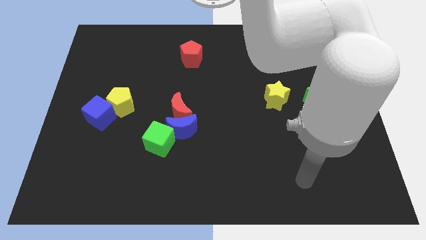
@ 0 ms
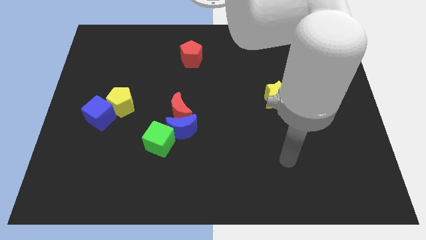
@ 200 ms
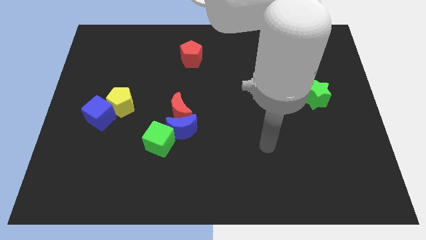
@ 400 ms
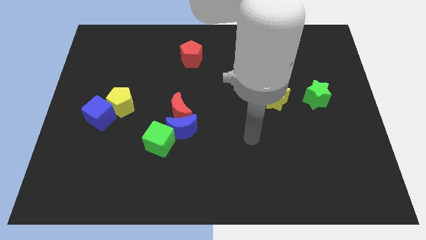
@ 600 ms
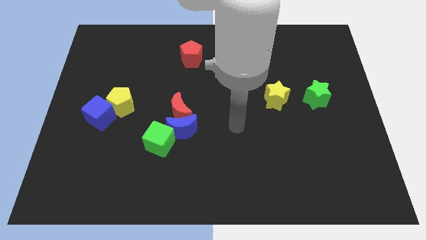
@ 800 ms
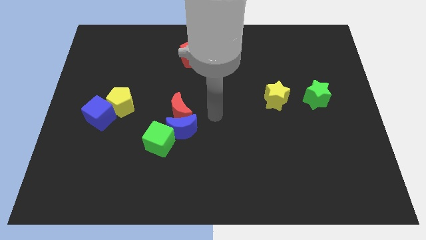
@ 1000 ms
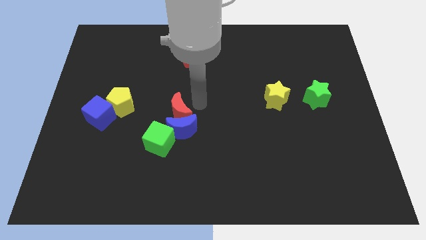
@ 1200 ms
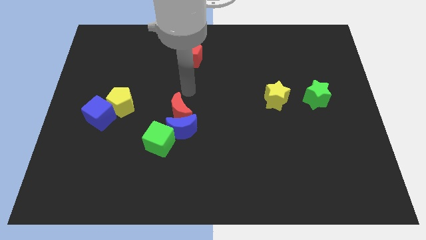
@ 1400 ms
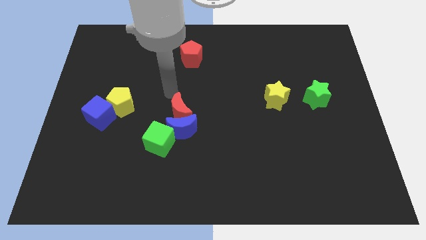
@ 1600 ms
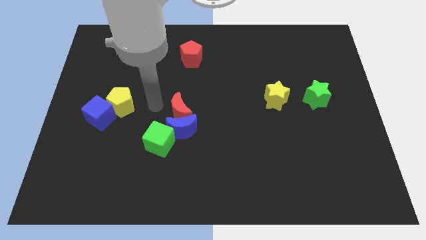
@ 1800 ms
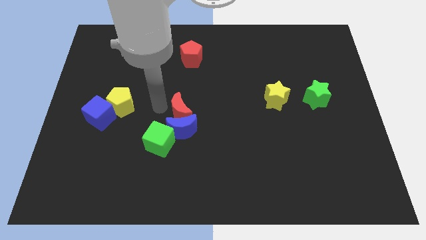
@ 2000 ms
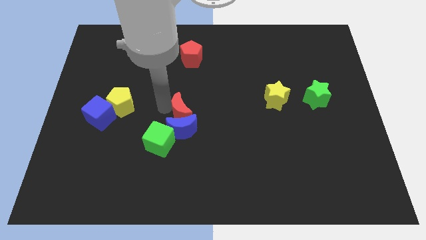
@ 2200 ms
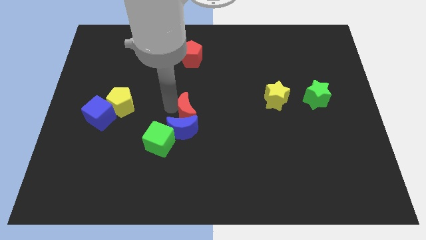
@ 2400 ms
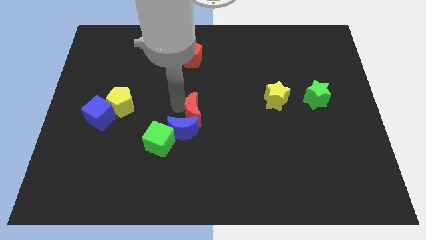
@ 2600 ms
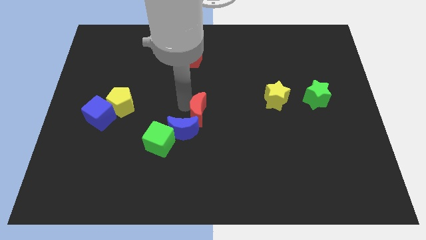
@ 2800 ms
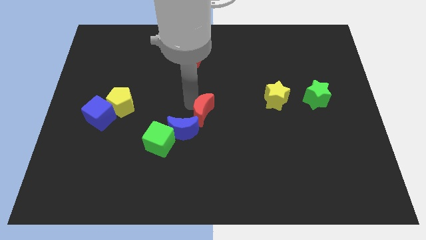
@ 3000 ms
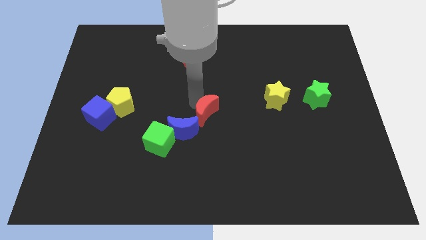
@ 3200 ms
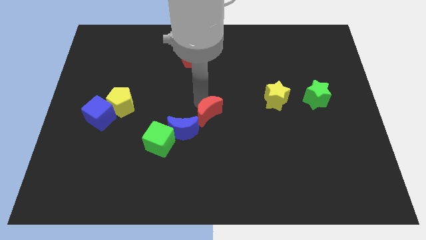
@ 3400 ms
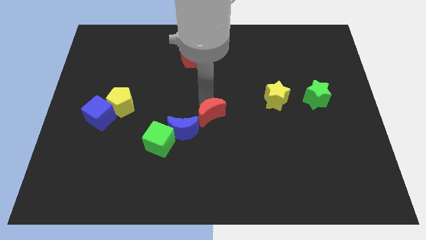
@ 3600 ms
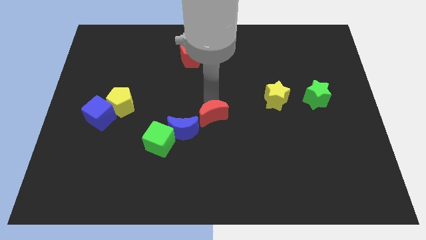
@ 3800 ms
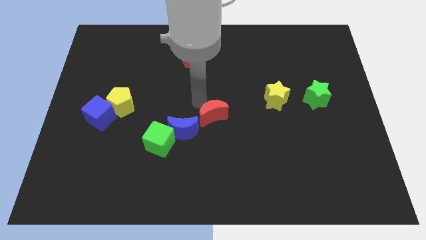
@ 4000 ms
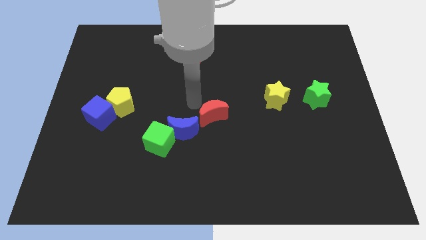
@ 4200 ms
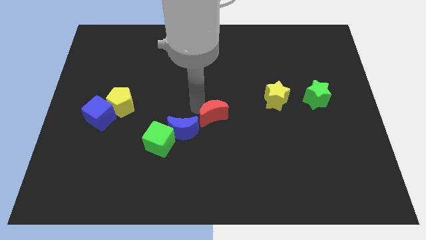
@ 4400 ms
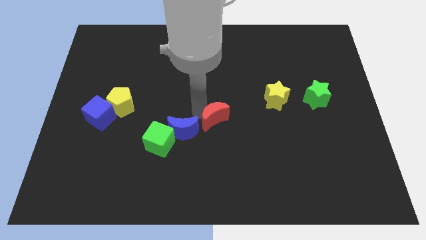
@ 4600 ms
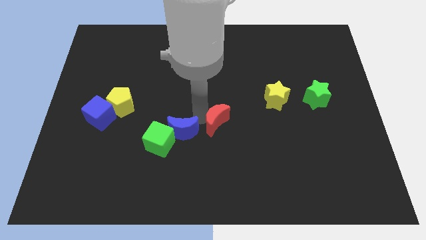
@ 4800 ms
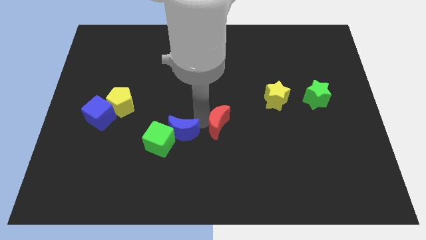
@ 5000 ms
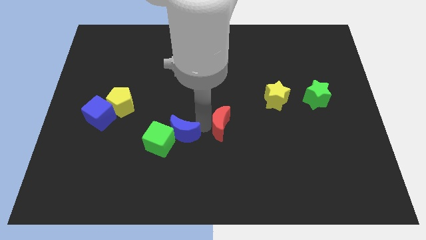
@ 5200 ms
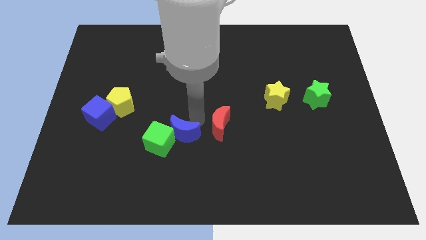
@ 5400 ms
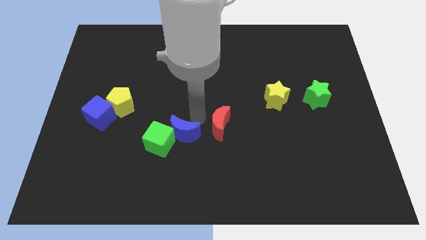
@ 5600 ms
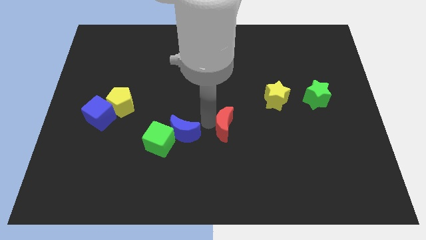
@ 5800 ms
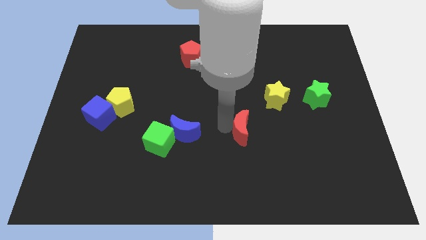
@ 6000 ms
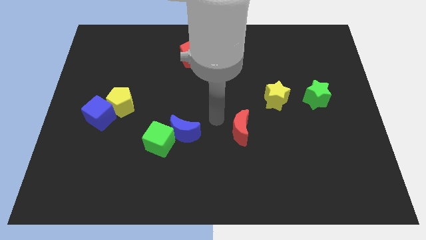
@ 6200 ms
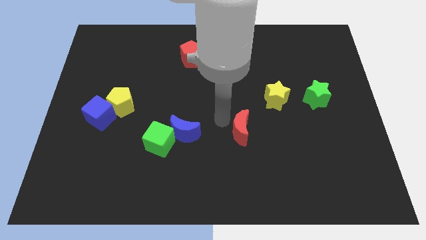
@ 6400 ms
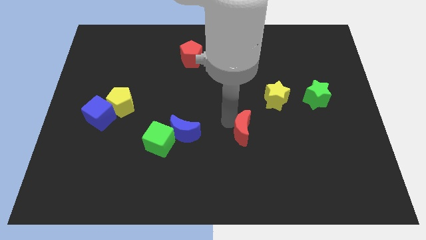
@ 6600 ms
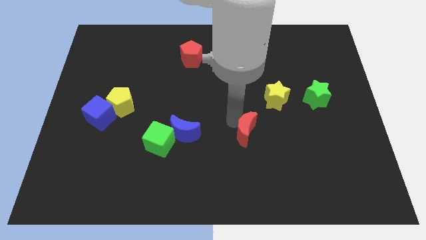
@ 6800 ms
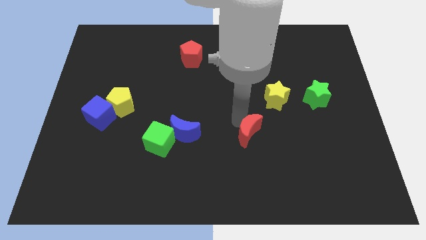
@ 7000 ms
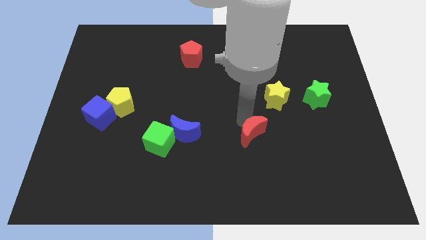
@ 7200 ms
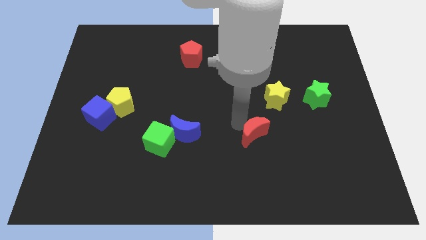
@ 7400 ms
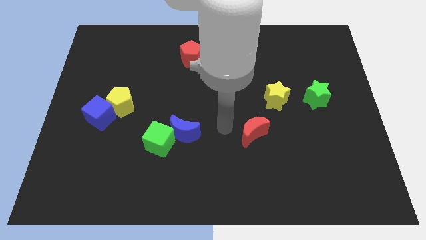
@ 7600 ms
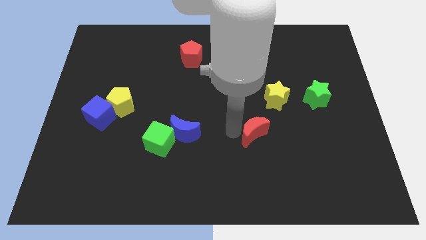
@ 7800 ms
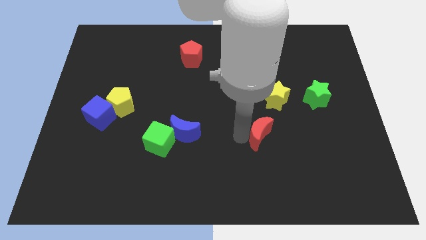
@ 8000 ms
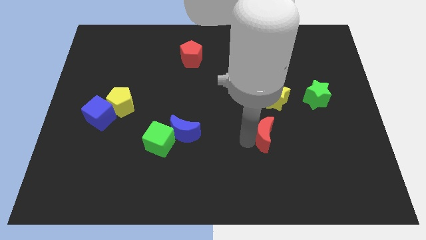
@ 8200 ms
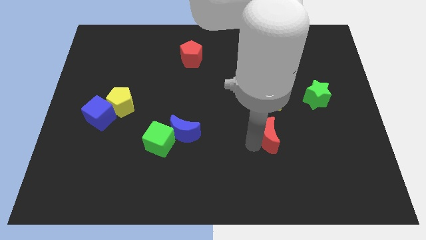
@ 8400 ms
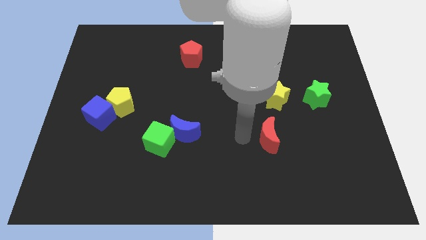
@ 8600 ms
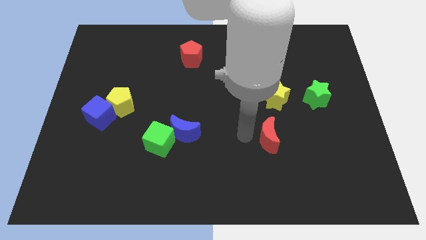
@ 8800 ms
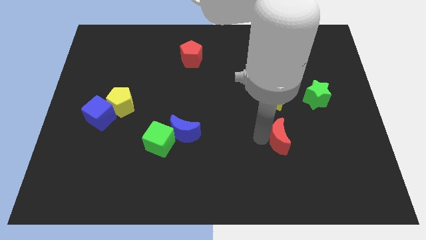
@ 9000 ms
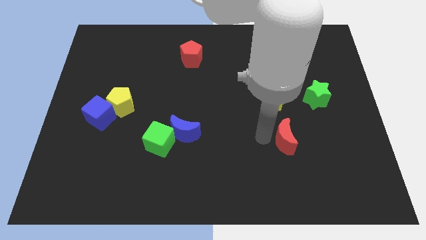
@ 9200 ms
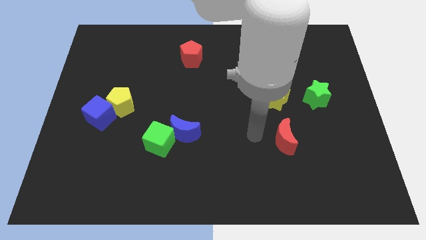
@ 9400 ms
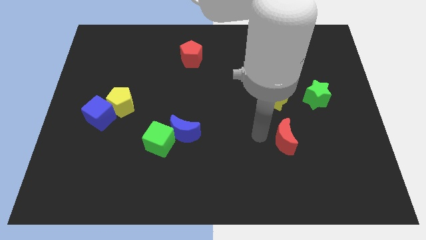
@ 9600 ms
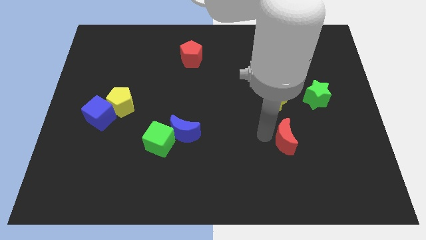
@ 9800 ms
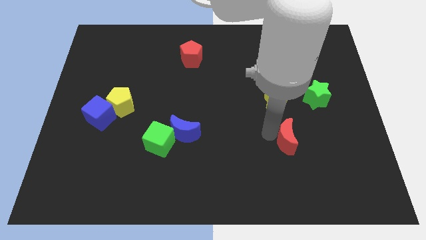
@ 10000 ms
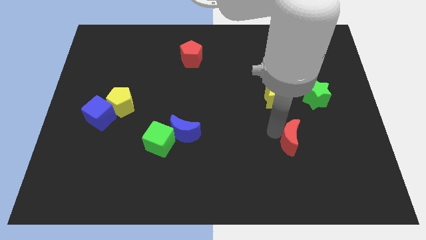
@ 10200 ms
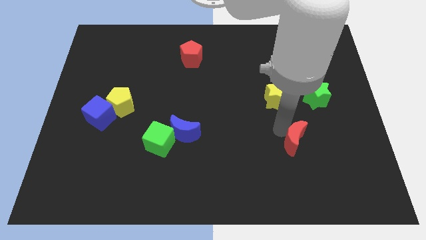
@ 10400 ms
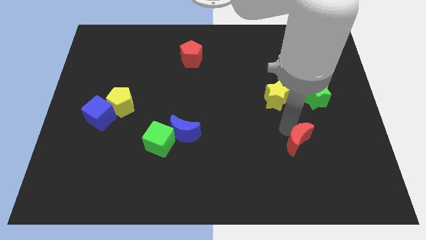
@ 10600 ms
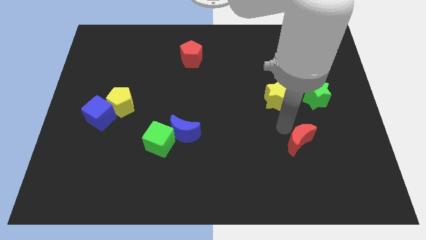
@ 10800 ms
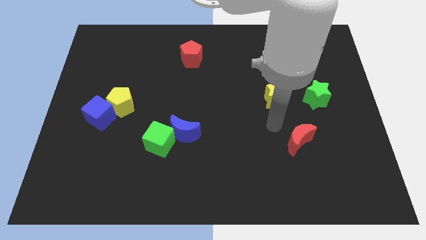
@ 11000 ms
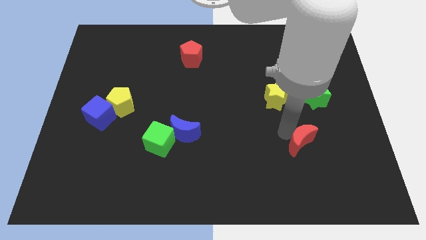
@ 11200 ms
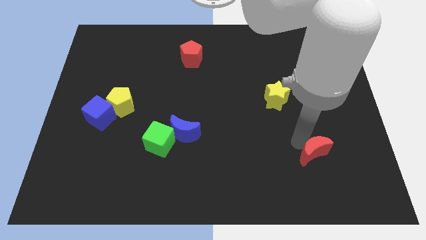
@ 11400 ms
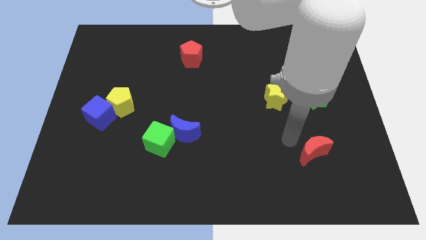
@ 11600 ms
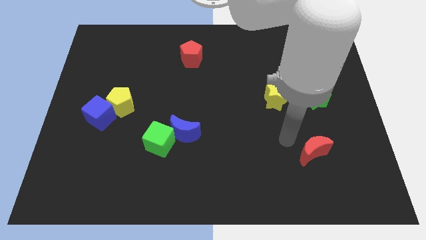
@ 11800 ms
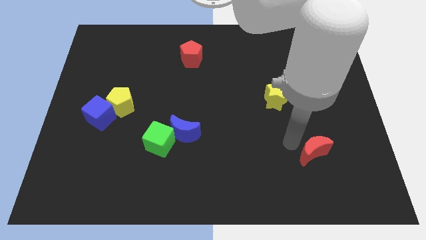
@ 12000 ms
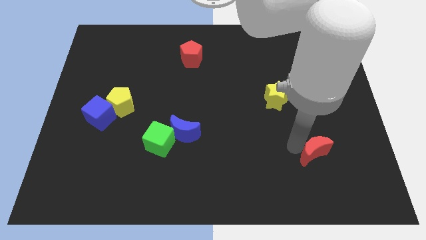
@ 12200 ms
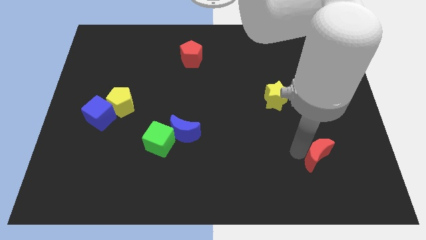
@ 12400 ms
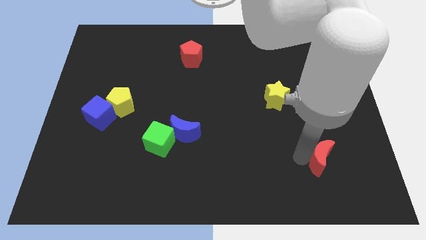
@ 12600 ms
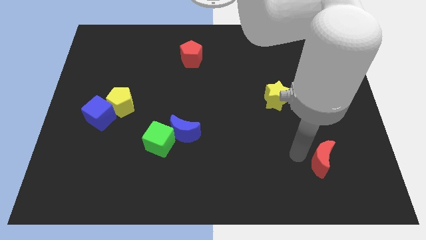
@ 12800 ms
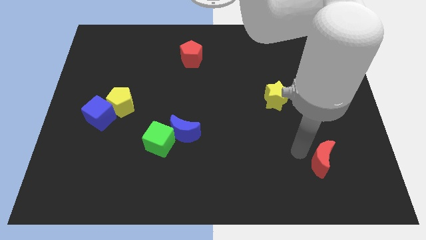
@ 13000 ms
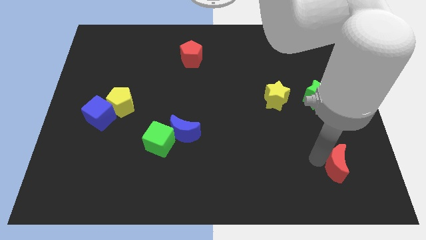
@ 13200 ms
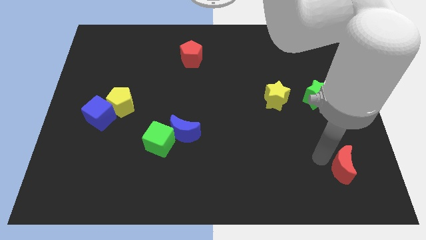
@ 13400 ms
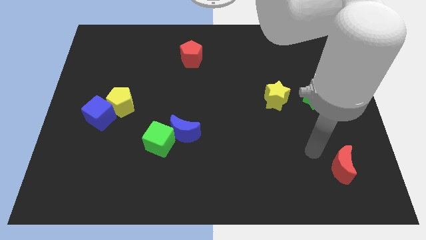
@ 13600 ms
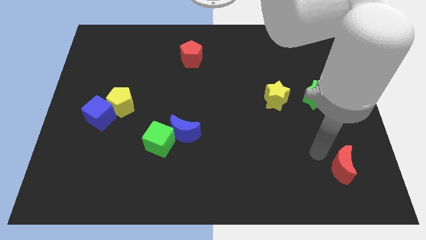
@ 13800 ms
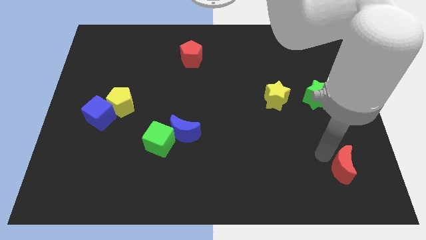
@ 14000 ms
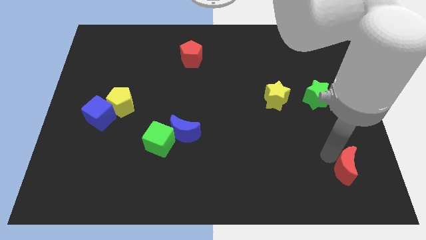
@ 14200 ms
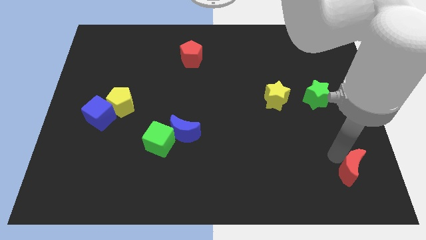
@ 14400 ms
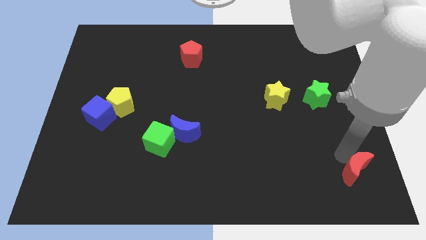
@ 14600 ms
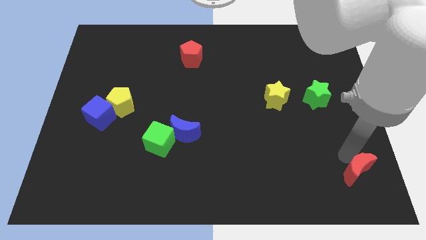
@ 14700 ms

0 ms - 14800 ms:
put the red moon to the bottom right of the board
